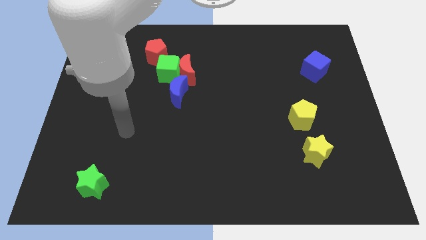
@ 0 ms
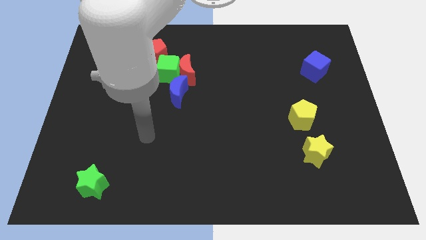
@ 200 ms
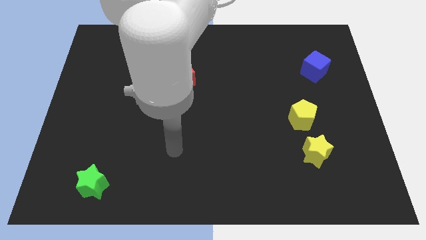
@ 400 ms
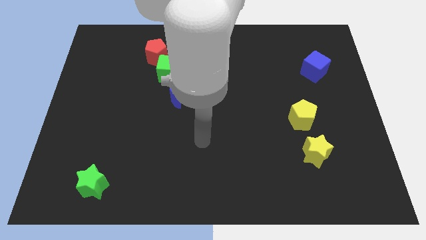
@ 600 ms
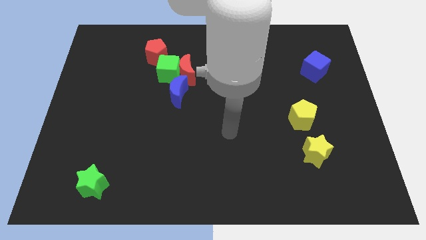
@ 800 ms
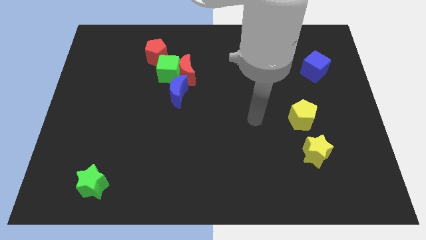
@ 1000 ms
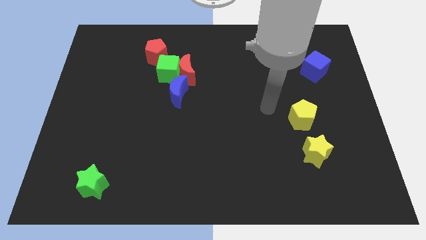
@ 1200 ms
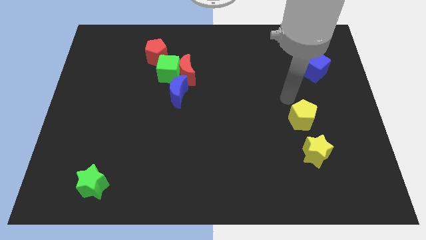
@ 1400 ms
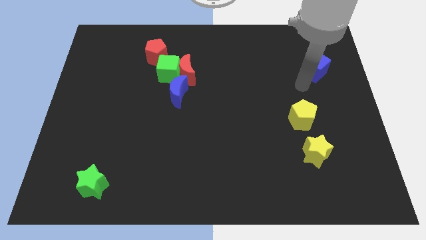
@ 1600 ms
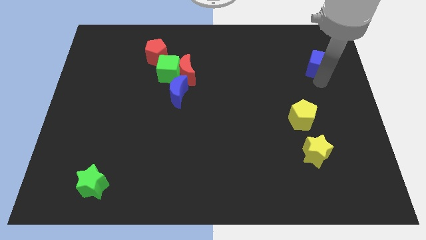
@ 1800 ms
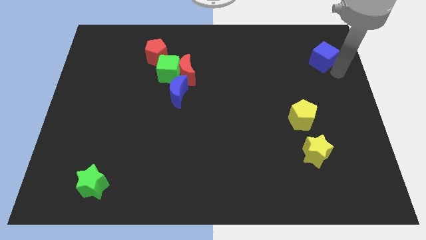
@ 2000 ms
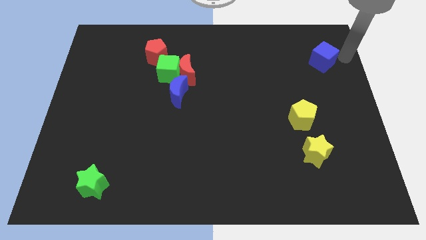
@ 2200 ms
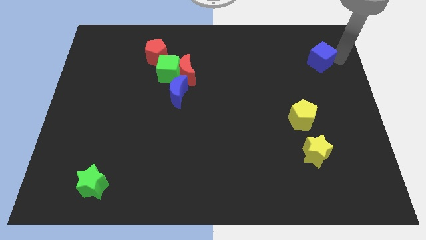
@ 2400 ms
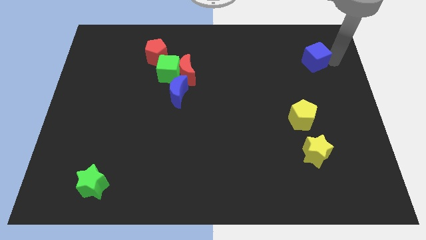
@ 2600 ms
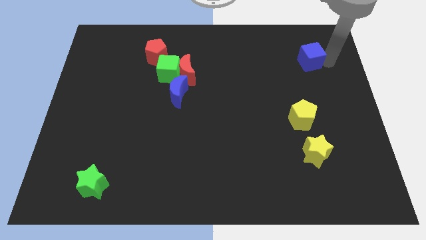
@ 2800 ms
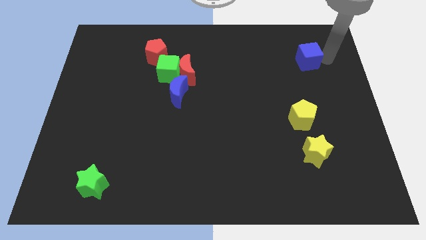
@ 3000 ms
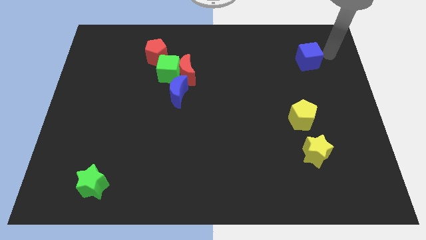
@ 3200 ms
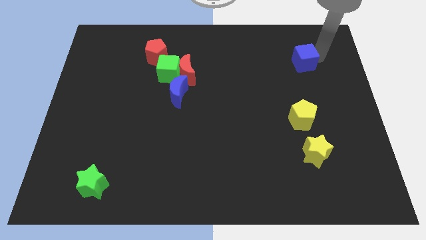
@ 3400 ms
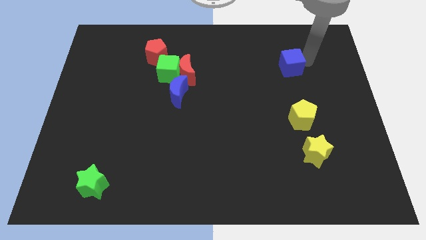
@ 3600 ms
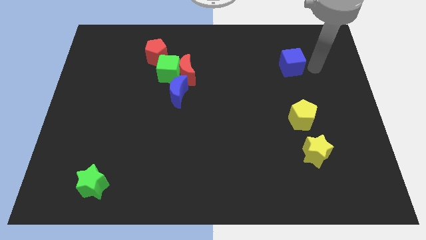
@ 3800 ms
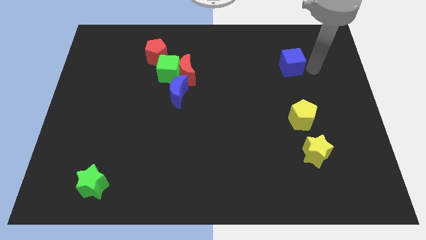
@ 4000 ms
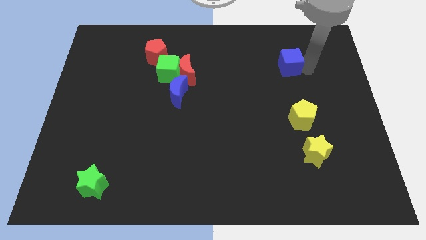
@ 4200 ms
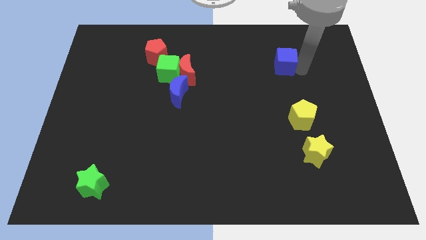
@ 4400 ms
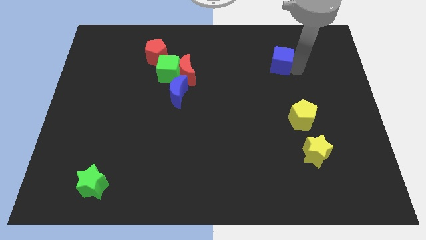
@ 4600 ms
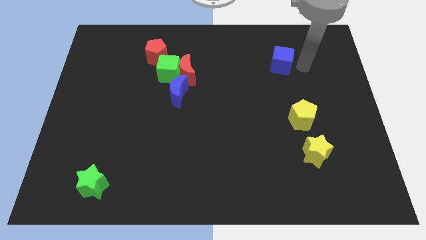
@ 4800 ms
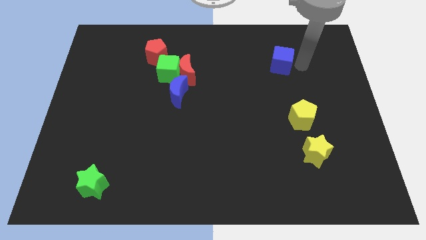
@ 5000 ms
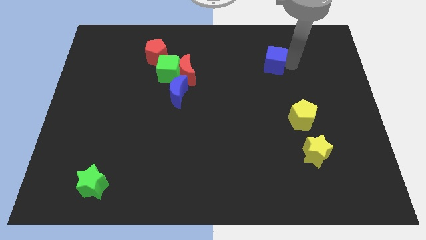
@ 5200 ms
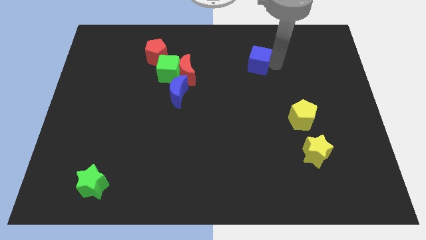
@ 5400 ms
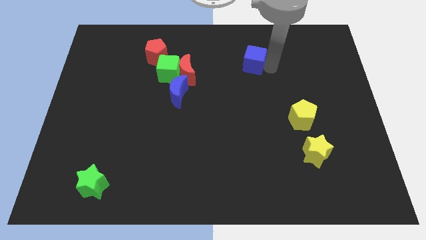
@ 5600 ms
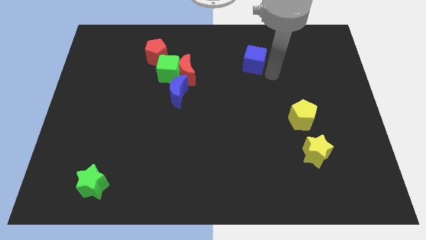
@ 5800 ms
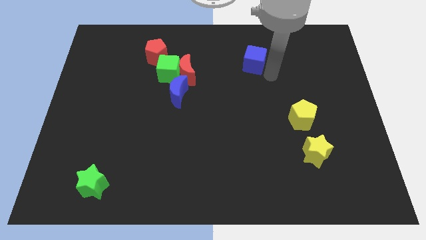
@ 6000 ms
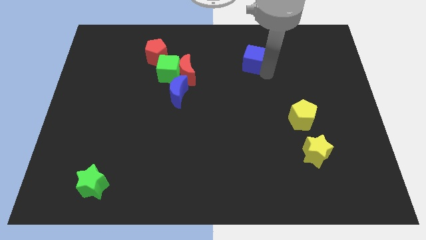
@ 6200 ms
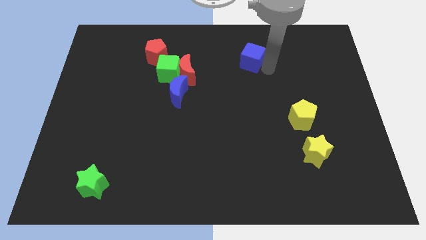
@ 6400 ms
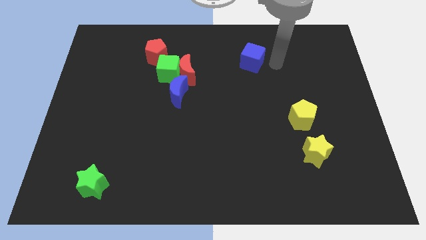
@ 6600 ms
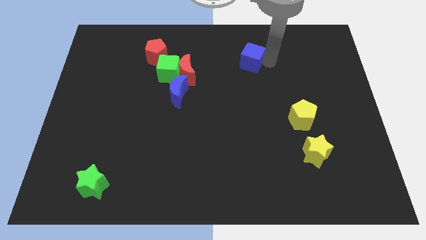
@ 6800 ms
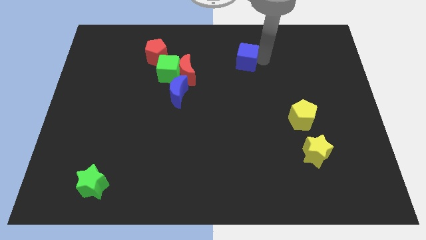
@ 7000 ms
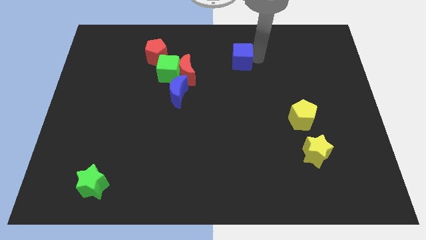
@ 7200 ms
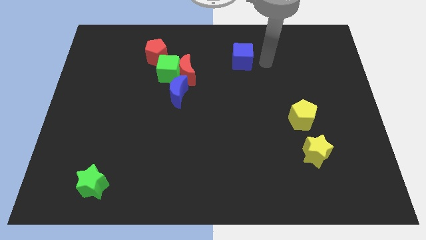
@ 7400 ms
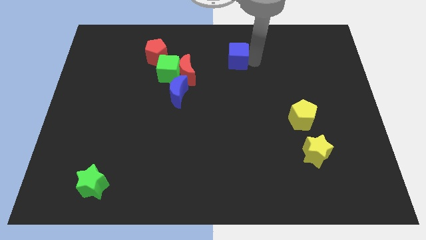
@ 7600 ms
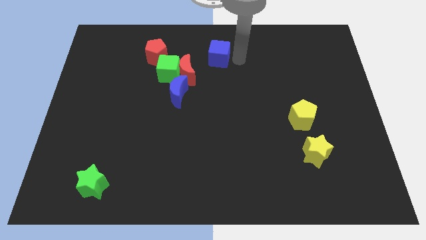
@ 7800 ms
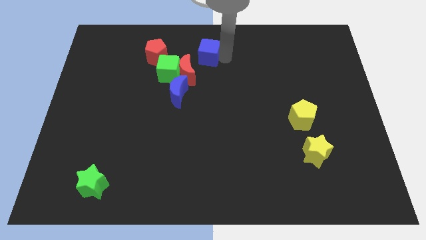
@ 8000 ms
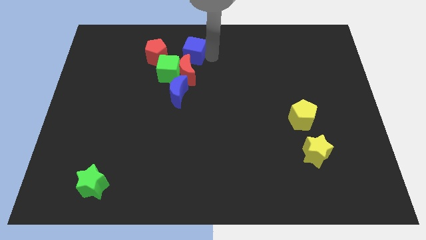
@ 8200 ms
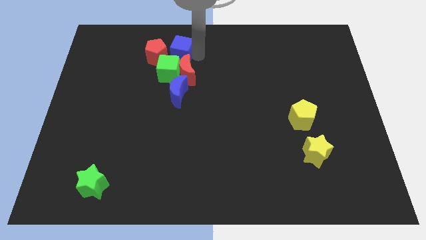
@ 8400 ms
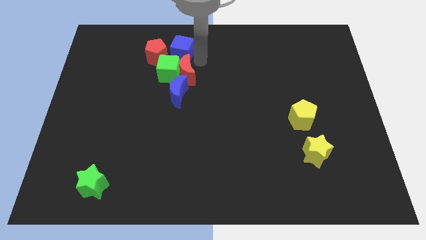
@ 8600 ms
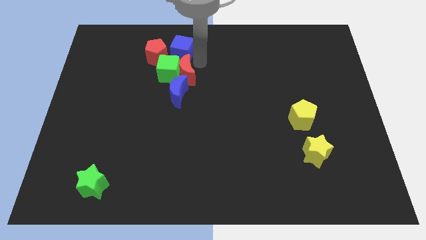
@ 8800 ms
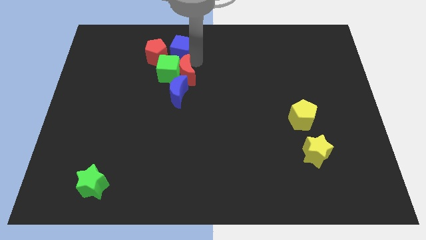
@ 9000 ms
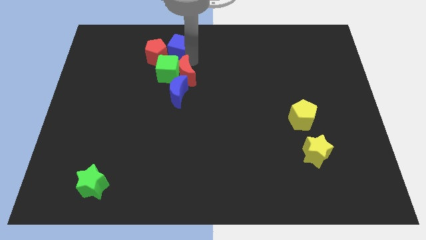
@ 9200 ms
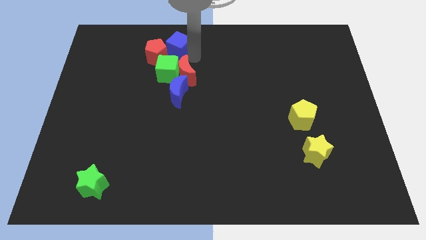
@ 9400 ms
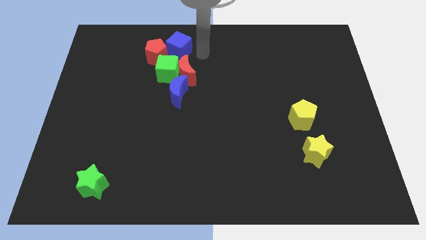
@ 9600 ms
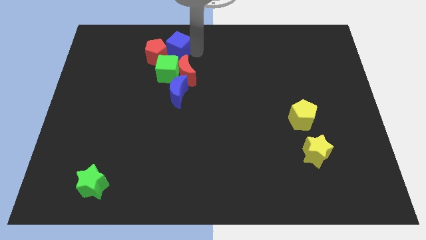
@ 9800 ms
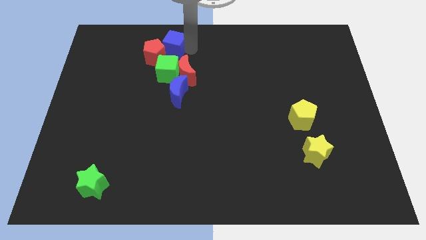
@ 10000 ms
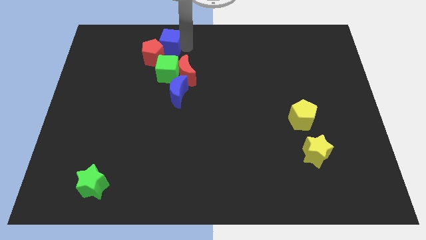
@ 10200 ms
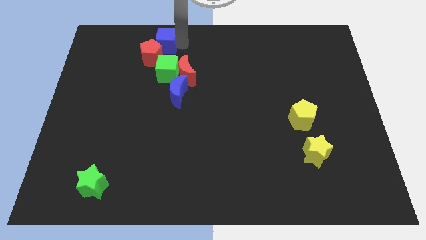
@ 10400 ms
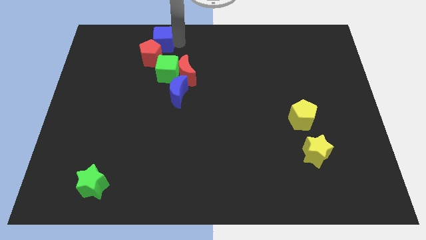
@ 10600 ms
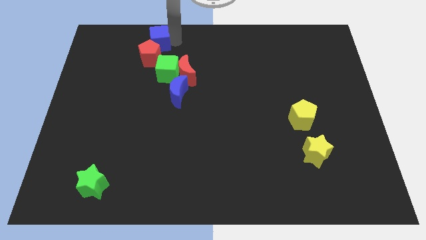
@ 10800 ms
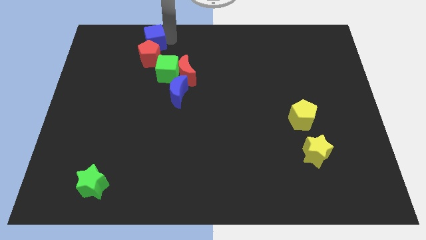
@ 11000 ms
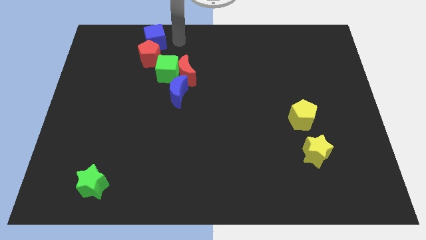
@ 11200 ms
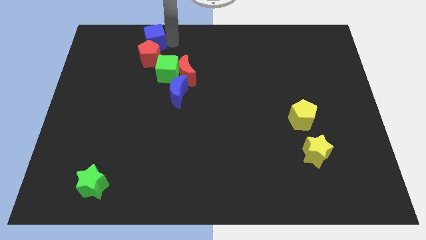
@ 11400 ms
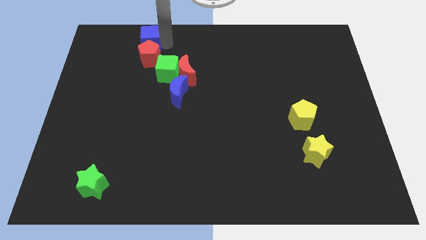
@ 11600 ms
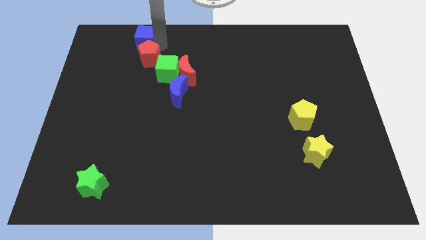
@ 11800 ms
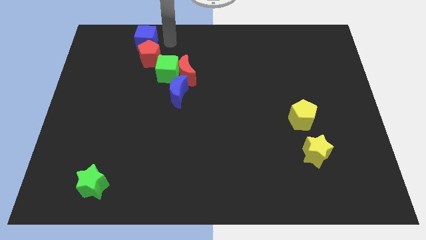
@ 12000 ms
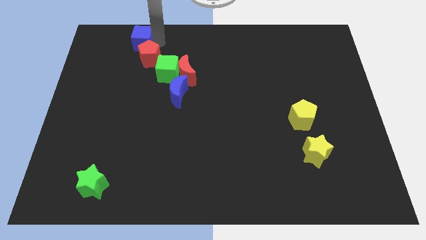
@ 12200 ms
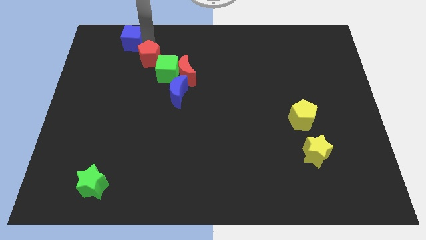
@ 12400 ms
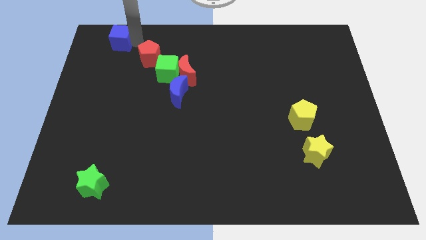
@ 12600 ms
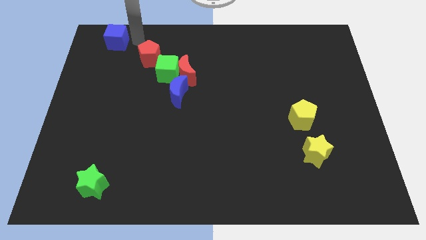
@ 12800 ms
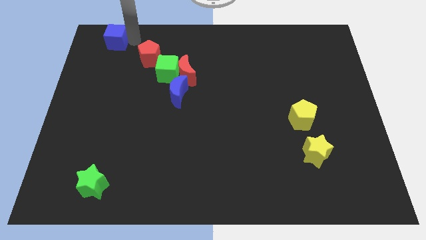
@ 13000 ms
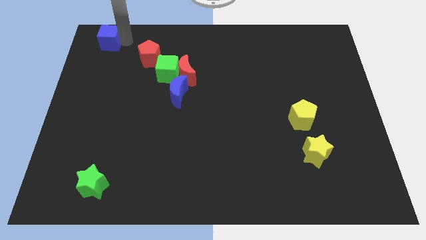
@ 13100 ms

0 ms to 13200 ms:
push the blue cube to the upper left corner
